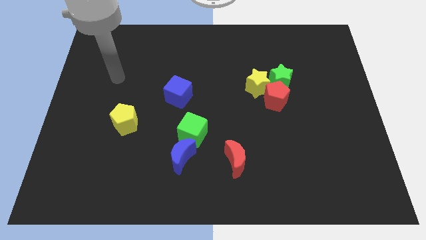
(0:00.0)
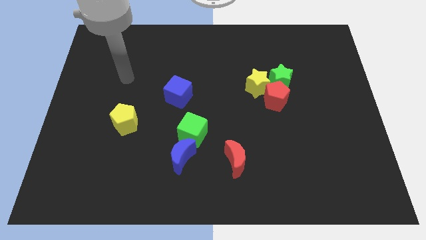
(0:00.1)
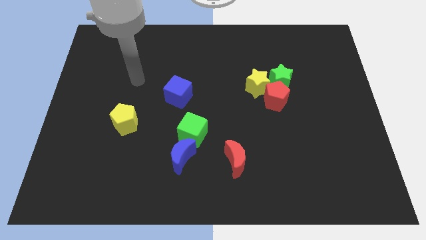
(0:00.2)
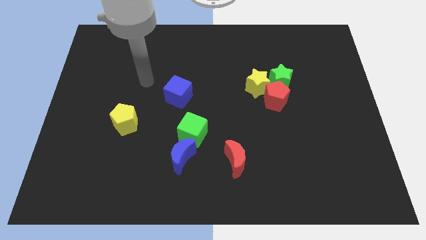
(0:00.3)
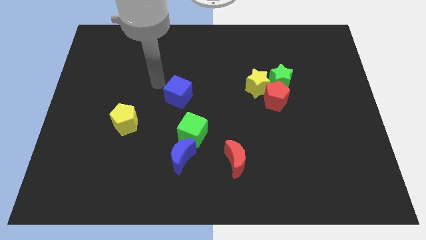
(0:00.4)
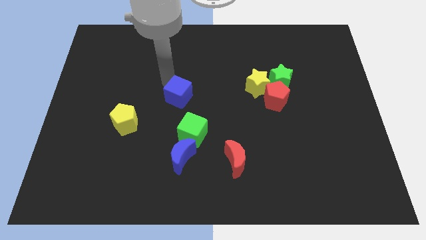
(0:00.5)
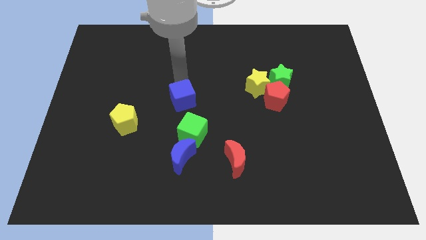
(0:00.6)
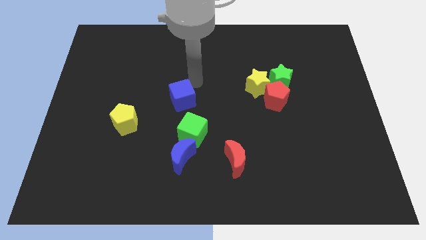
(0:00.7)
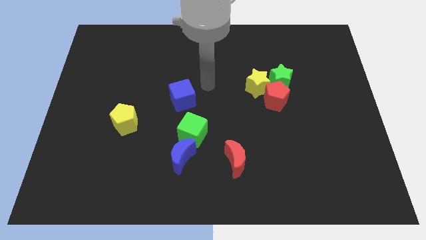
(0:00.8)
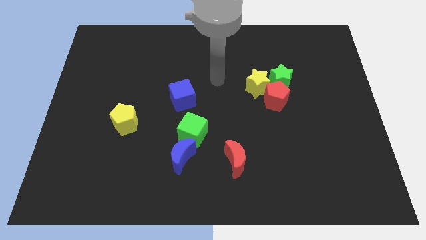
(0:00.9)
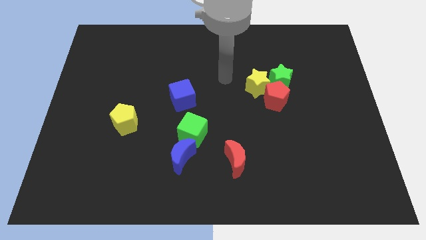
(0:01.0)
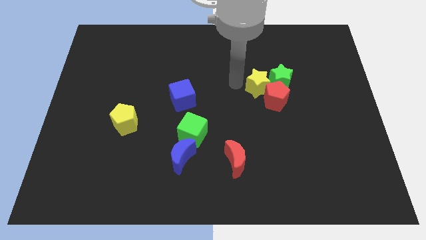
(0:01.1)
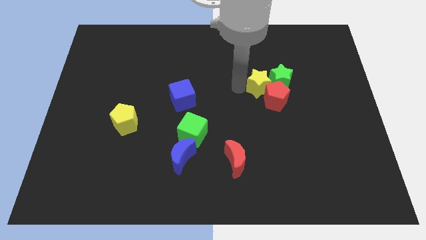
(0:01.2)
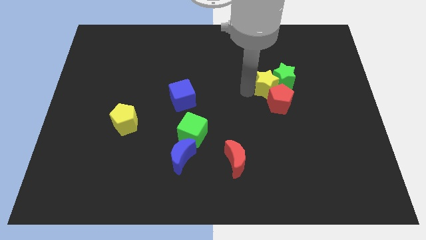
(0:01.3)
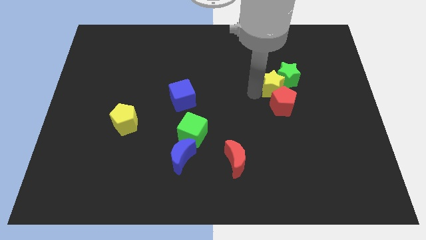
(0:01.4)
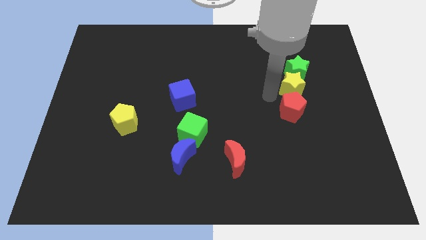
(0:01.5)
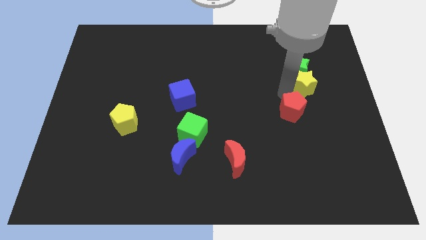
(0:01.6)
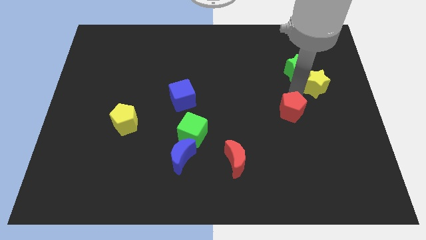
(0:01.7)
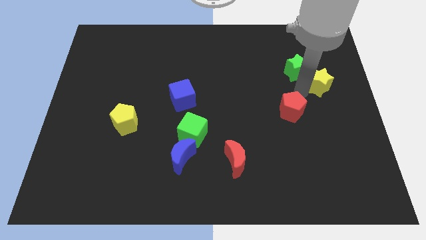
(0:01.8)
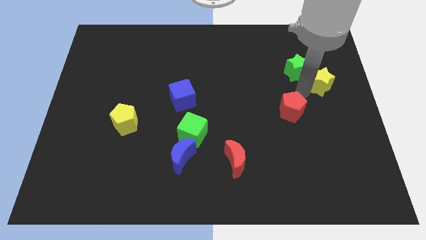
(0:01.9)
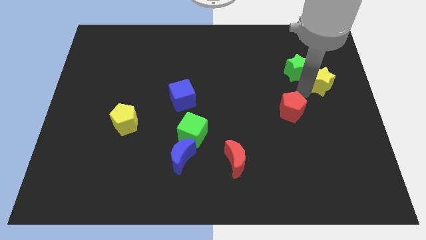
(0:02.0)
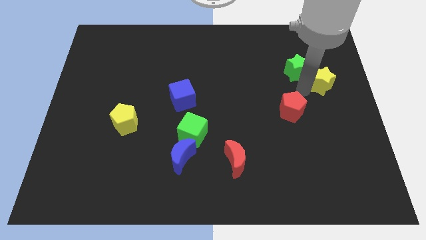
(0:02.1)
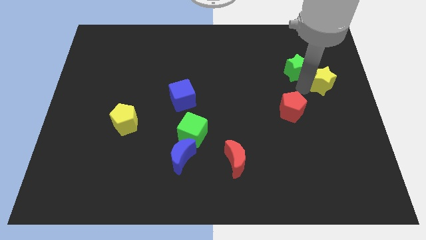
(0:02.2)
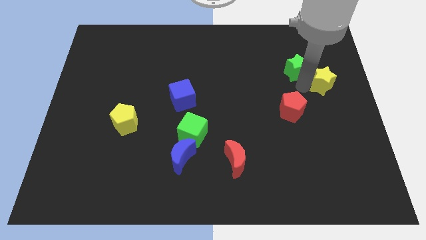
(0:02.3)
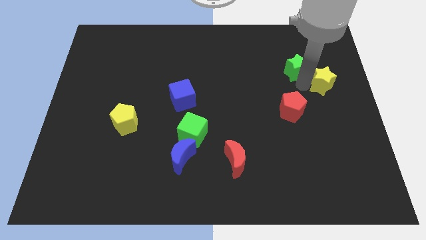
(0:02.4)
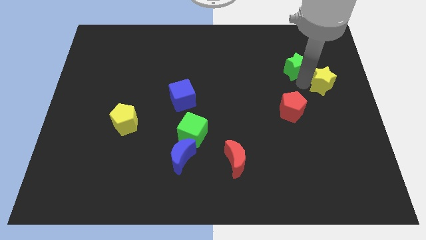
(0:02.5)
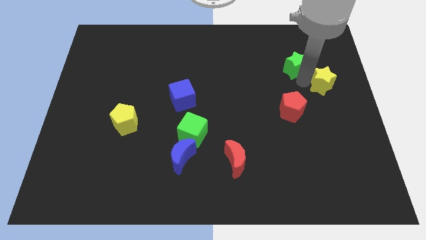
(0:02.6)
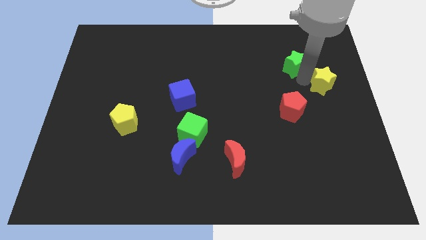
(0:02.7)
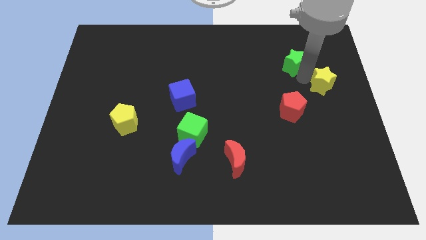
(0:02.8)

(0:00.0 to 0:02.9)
separate the green star from the yellow star and red pentagon

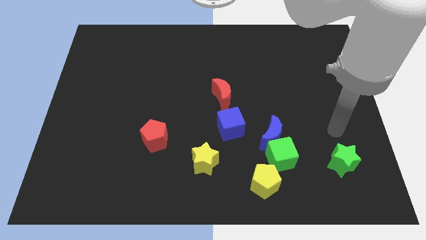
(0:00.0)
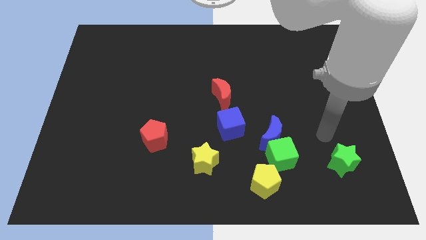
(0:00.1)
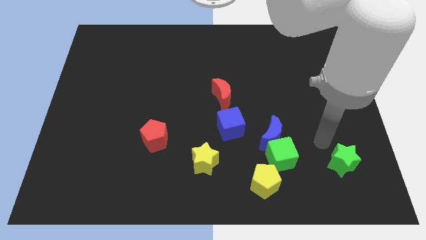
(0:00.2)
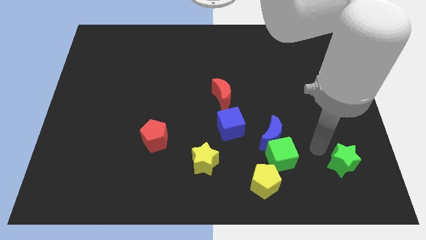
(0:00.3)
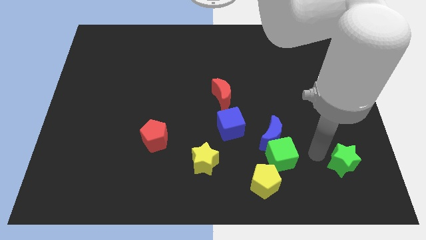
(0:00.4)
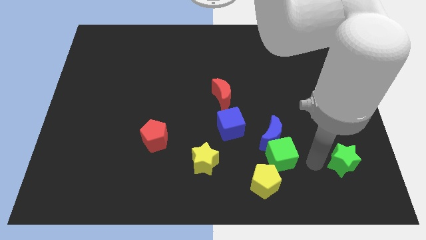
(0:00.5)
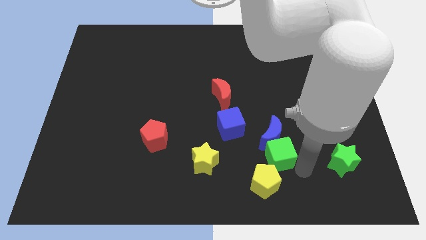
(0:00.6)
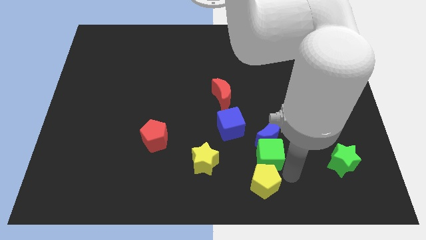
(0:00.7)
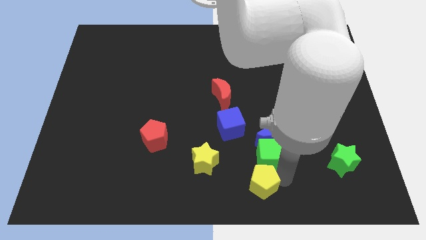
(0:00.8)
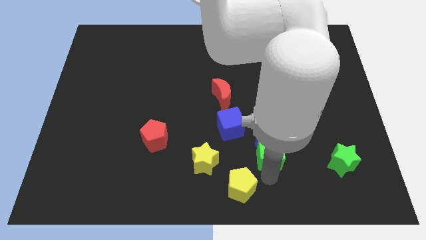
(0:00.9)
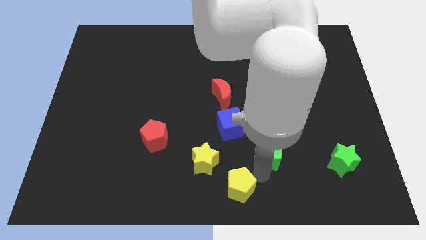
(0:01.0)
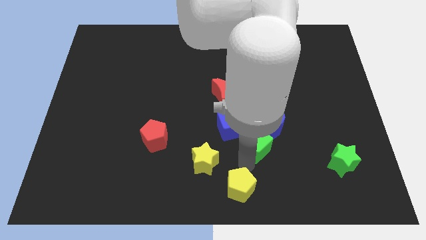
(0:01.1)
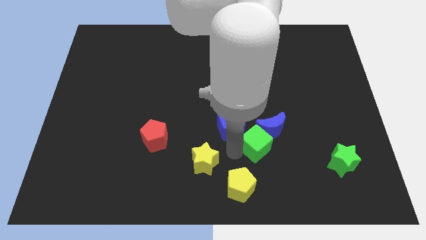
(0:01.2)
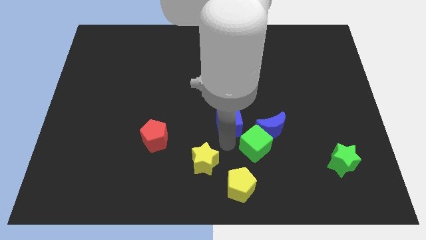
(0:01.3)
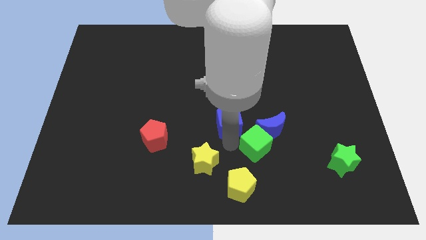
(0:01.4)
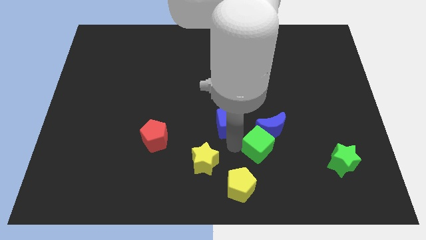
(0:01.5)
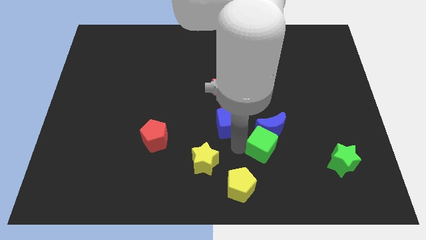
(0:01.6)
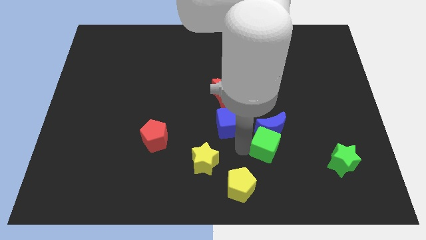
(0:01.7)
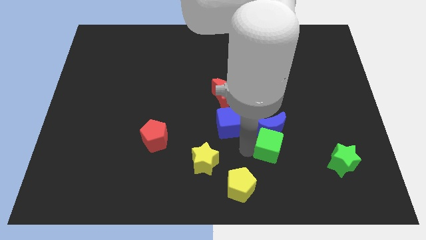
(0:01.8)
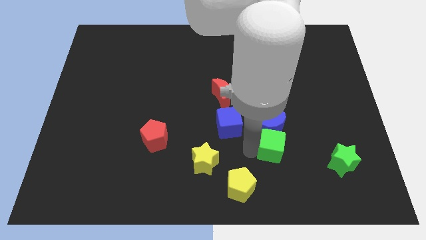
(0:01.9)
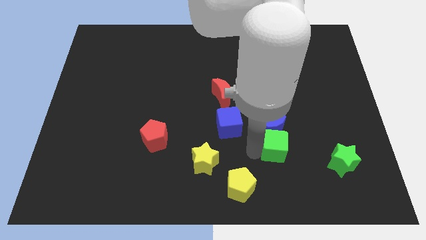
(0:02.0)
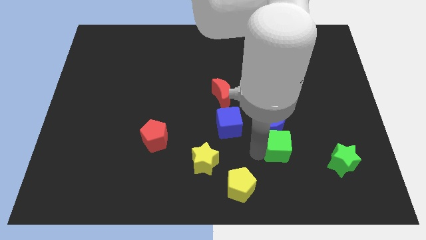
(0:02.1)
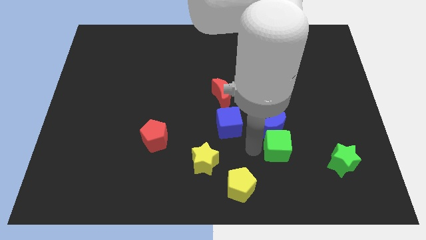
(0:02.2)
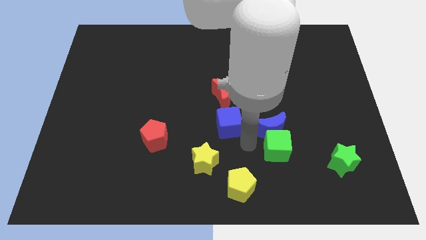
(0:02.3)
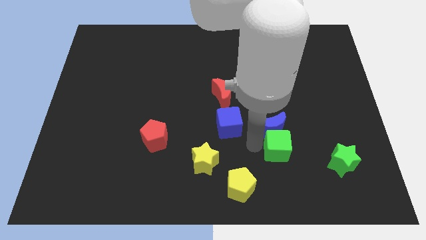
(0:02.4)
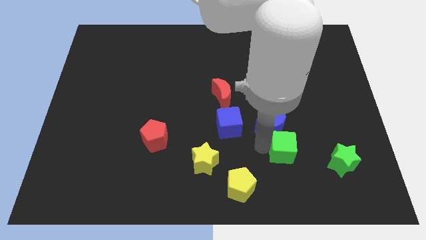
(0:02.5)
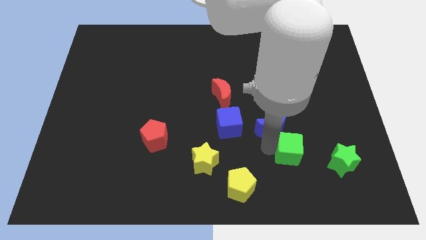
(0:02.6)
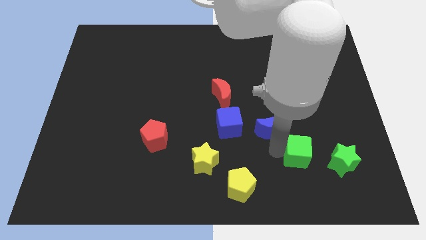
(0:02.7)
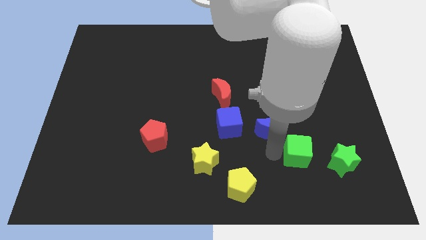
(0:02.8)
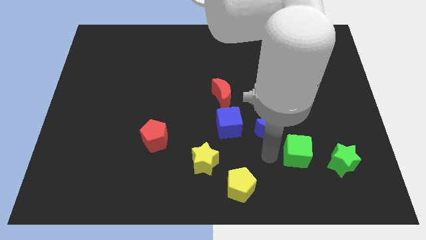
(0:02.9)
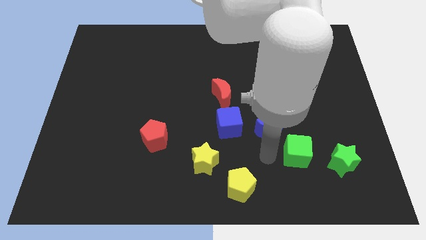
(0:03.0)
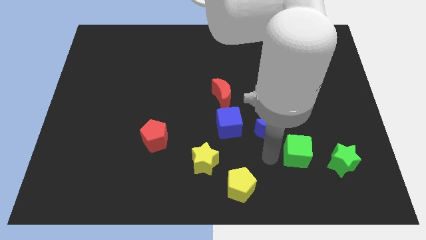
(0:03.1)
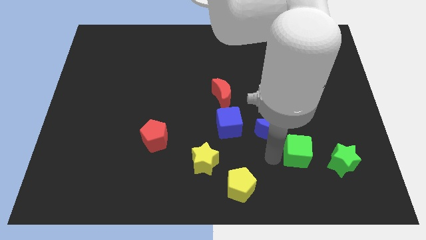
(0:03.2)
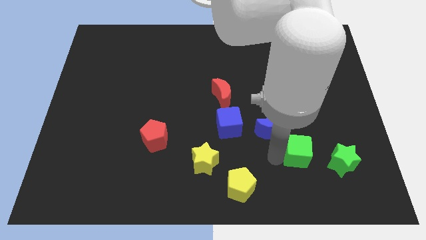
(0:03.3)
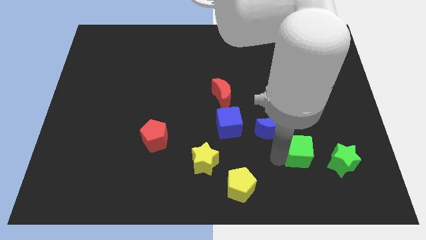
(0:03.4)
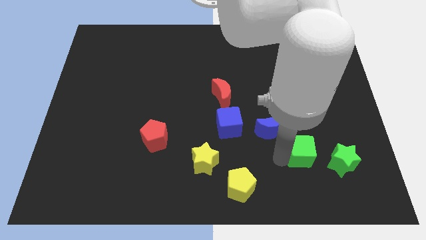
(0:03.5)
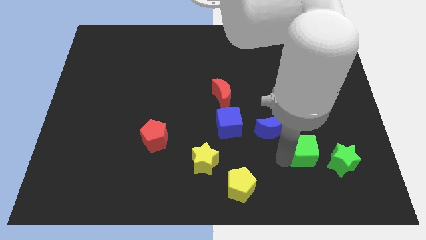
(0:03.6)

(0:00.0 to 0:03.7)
separate the green cube from the blue moon and yellow pentagon

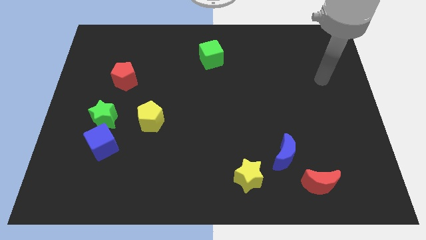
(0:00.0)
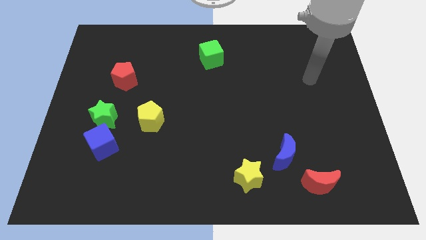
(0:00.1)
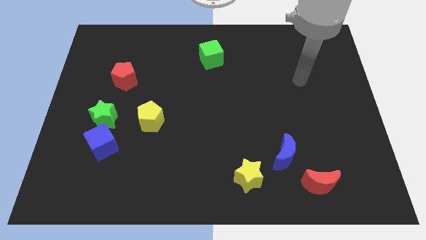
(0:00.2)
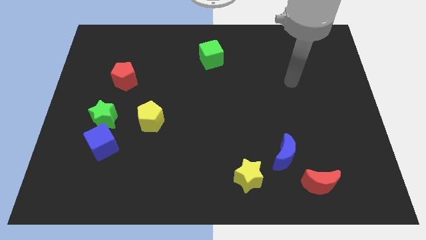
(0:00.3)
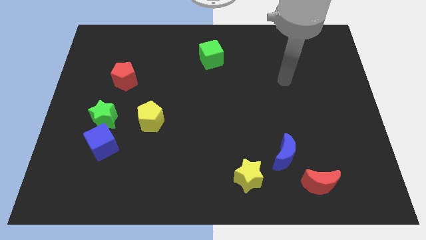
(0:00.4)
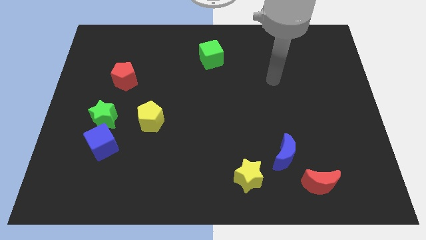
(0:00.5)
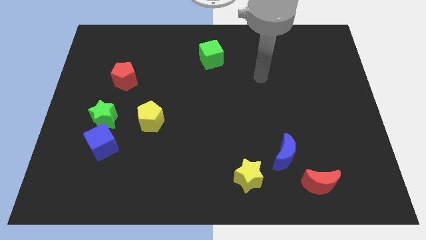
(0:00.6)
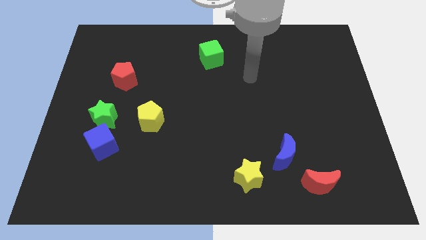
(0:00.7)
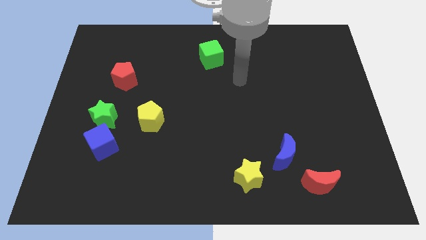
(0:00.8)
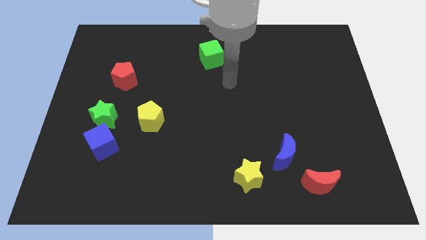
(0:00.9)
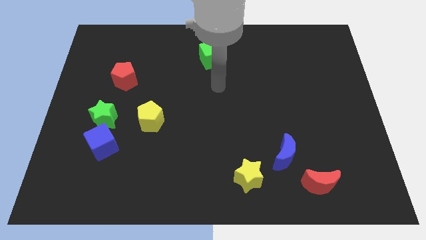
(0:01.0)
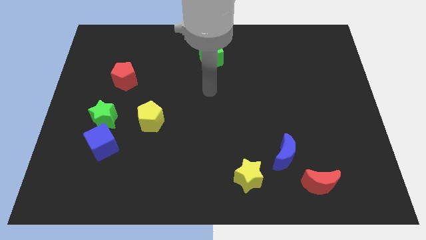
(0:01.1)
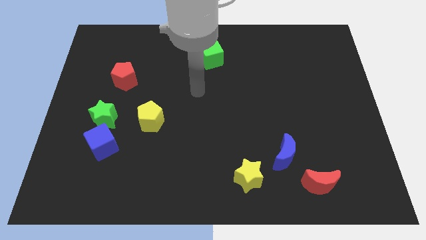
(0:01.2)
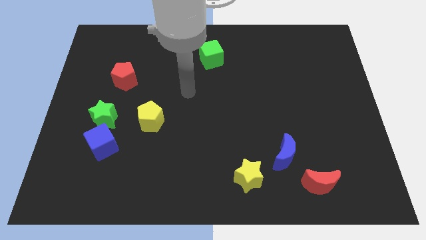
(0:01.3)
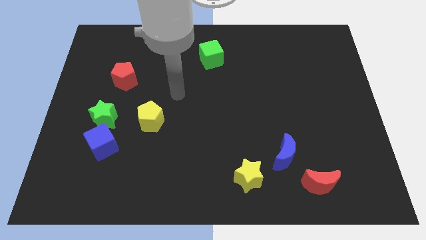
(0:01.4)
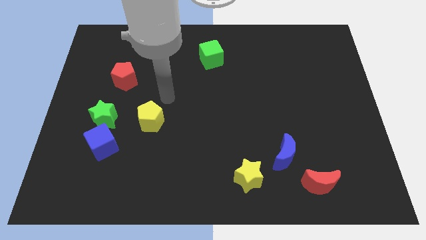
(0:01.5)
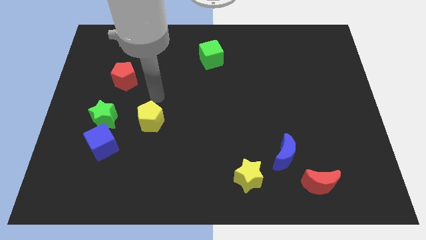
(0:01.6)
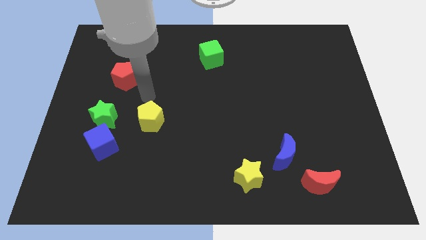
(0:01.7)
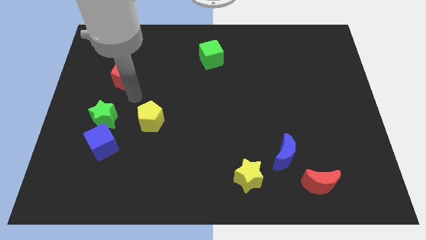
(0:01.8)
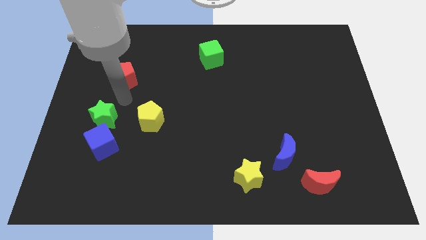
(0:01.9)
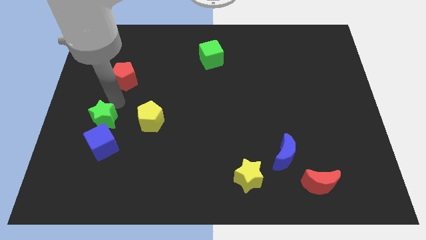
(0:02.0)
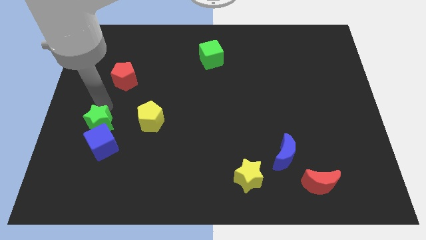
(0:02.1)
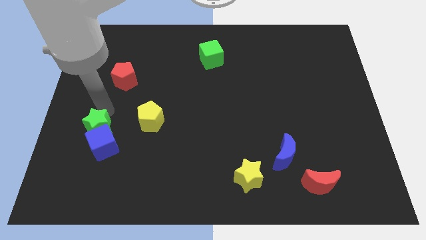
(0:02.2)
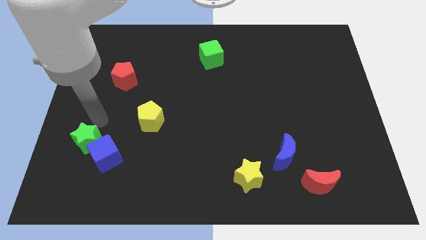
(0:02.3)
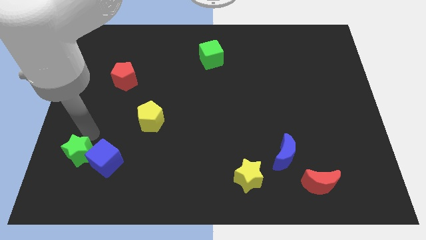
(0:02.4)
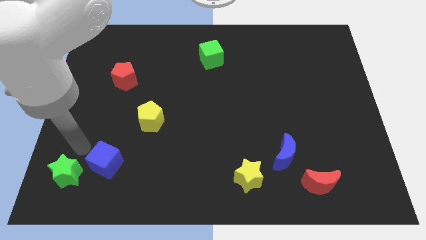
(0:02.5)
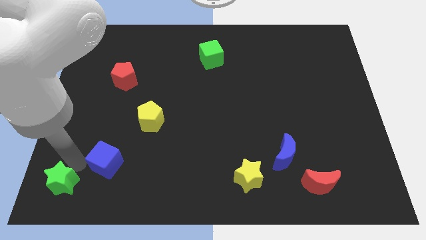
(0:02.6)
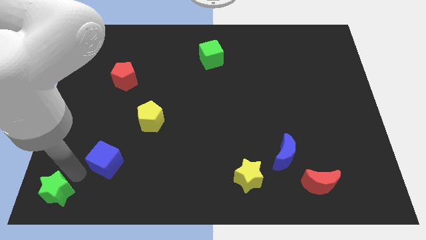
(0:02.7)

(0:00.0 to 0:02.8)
separate the blue cube from the green star

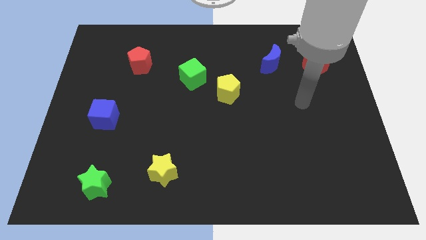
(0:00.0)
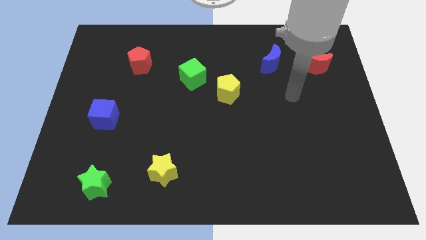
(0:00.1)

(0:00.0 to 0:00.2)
pull the green cube apart from the yellow pentagon

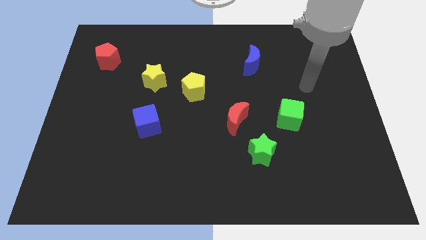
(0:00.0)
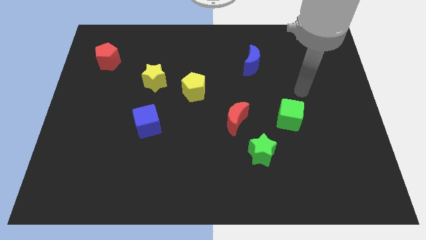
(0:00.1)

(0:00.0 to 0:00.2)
pull the red moon apart from the green star
